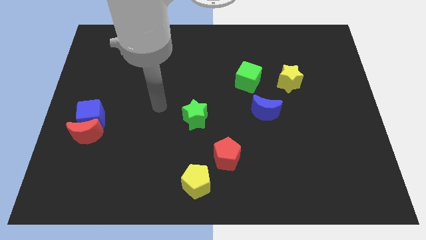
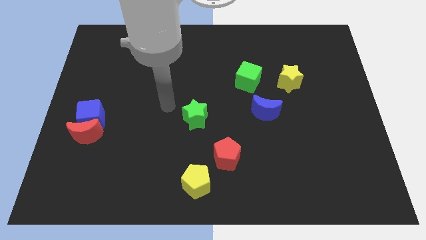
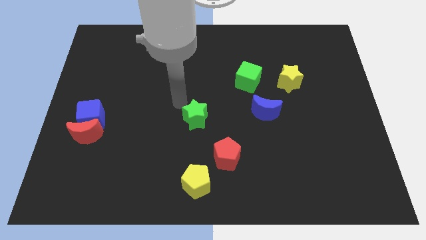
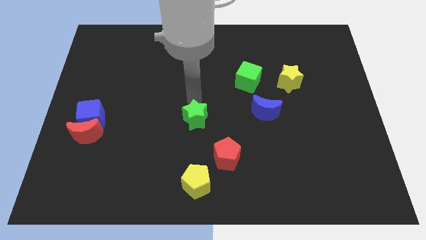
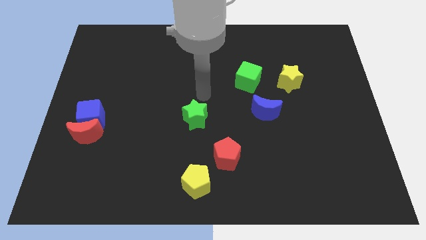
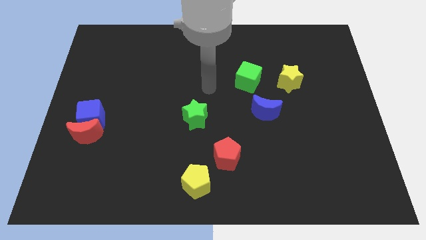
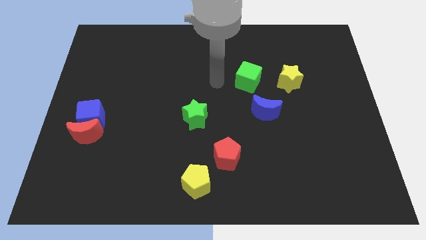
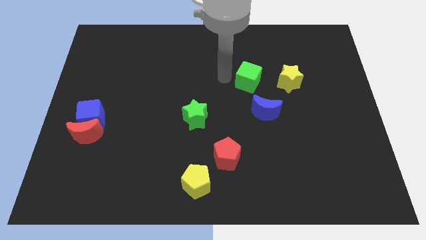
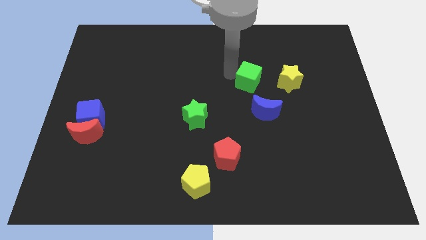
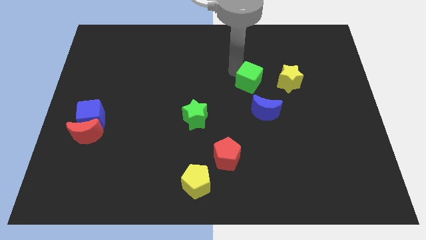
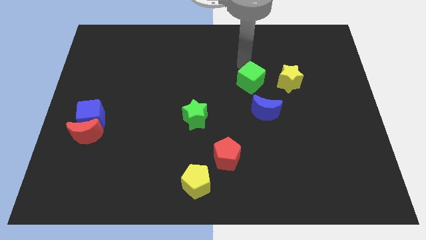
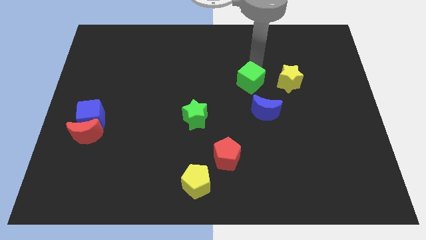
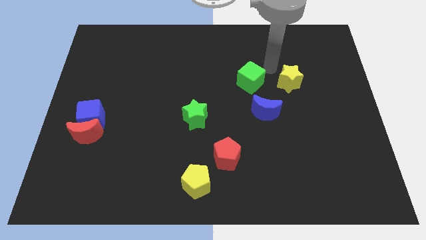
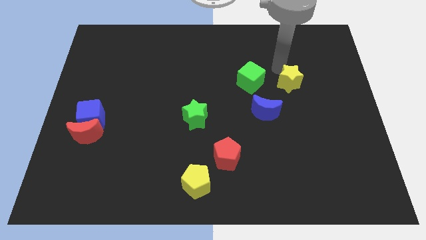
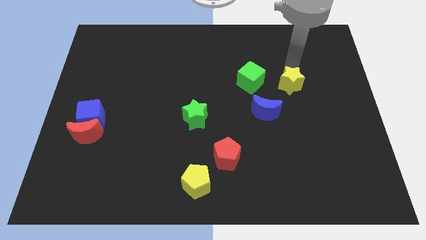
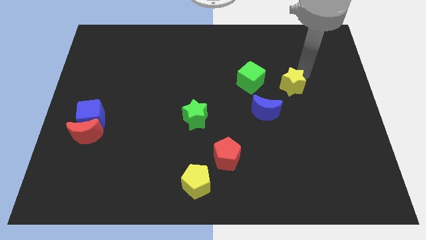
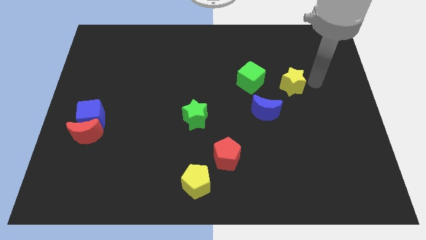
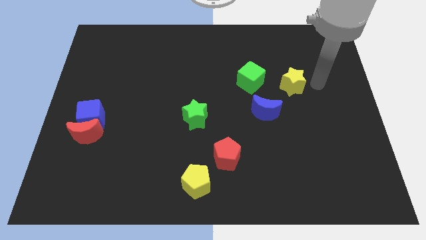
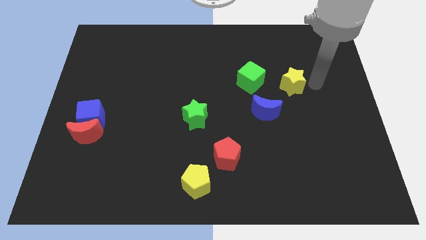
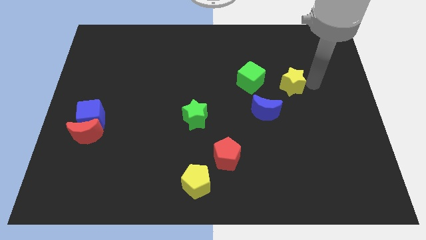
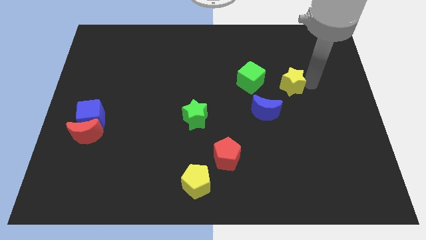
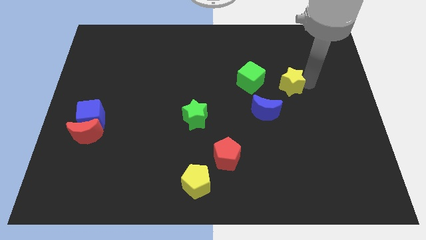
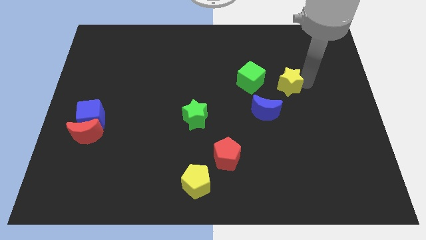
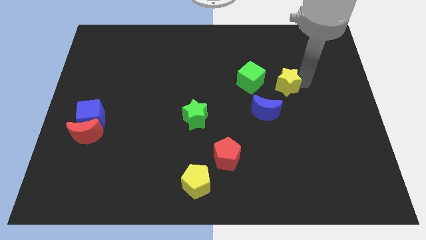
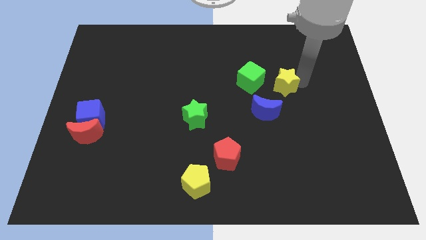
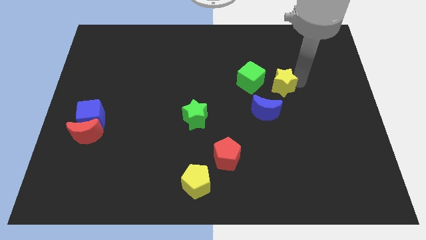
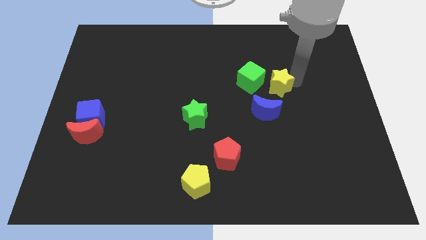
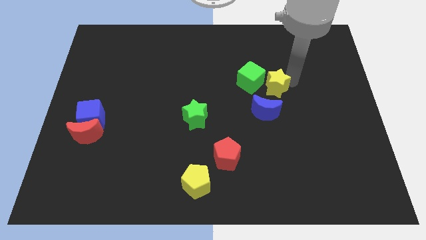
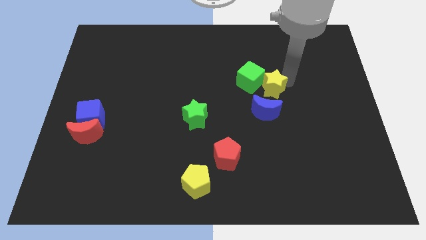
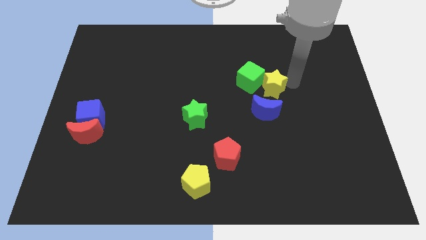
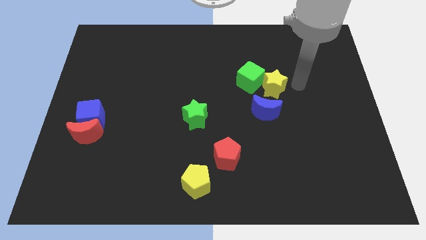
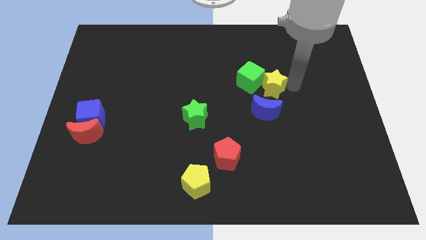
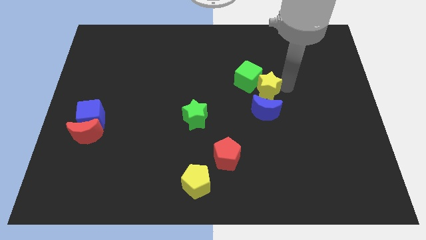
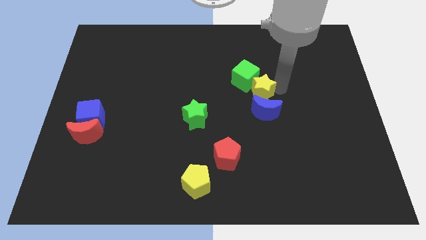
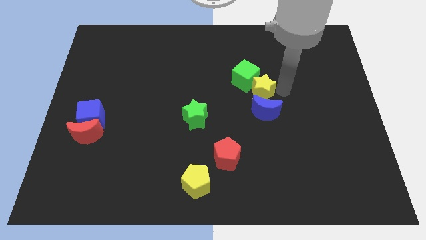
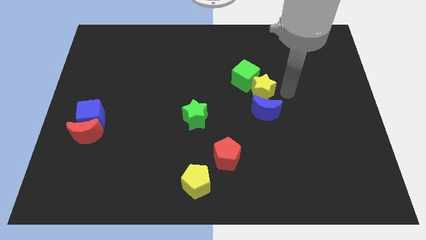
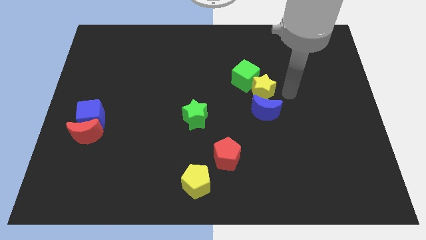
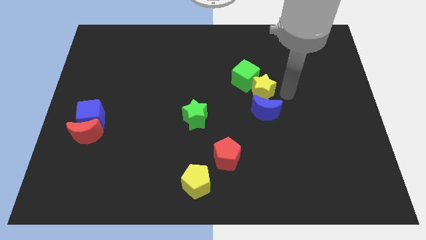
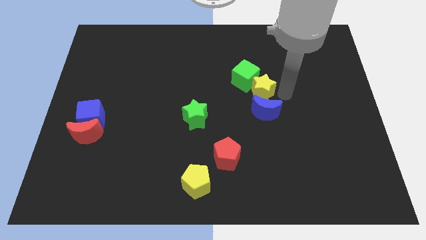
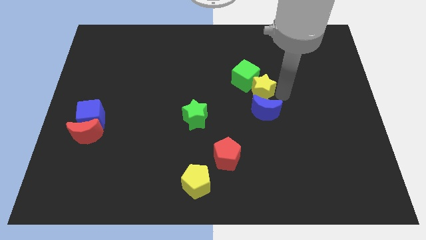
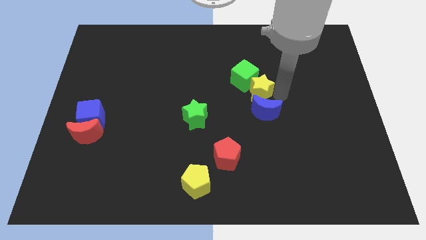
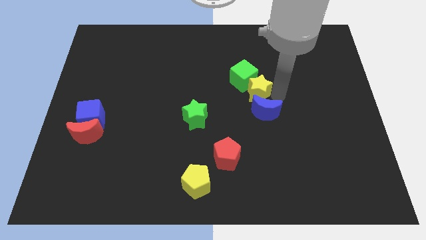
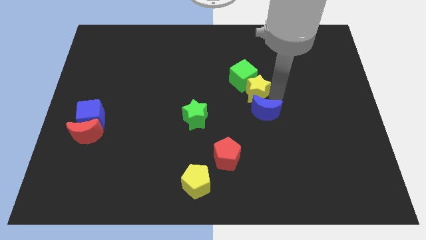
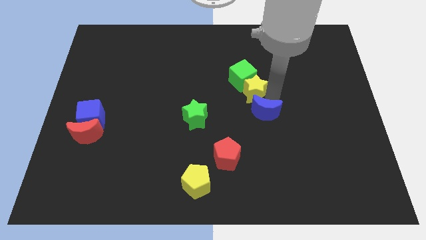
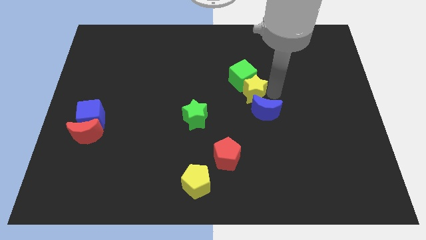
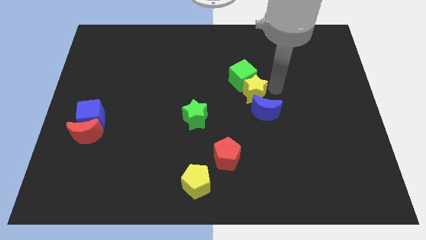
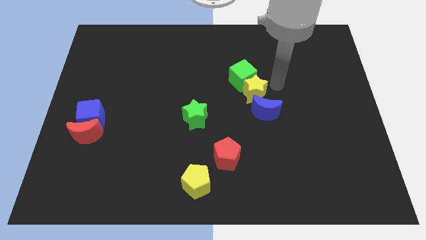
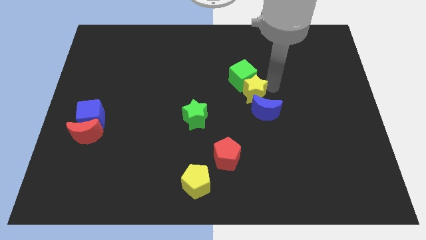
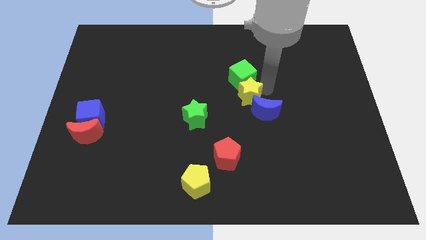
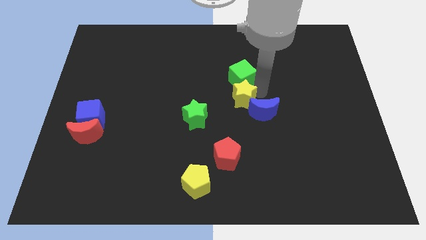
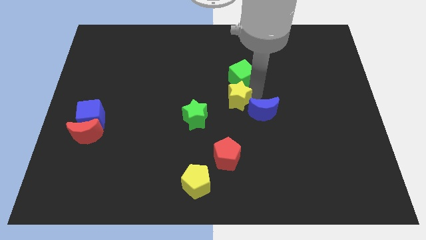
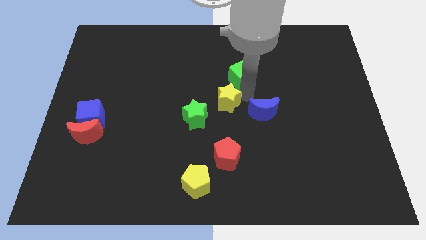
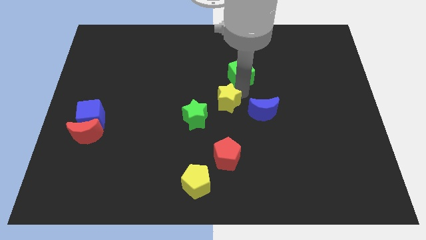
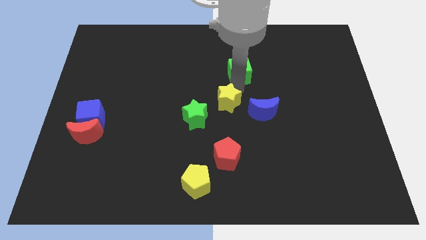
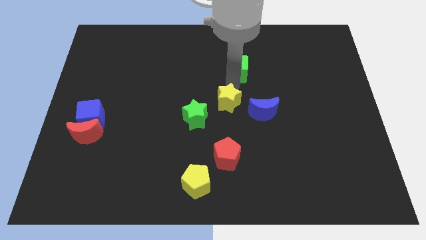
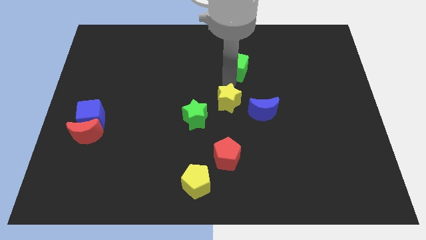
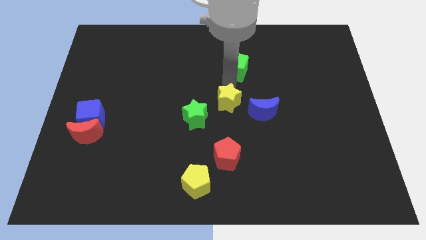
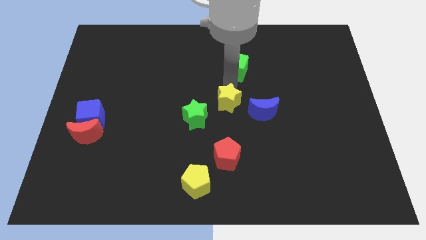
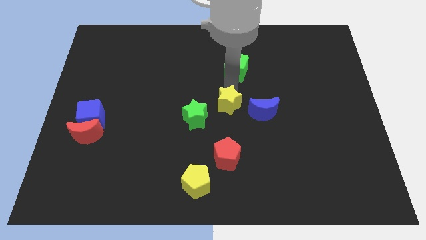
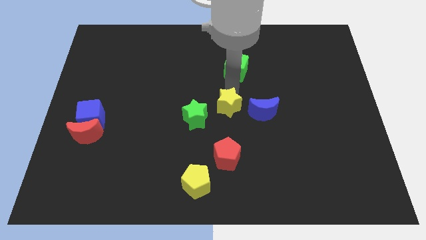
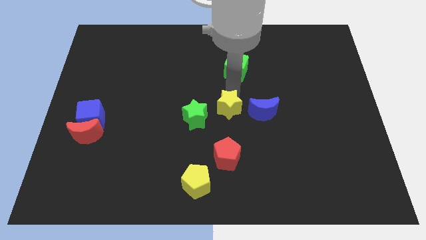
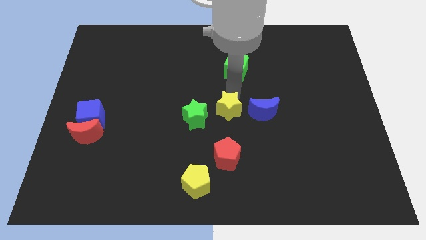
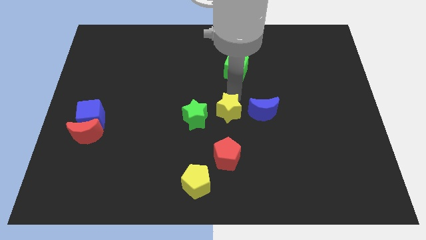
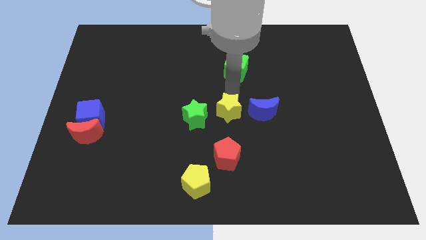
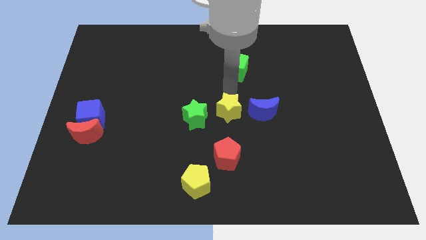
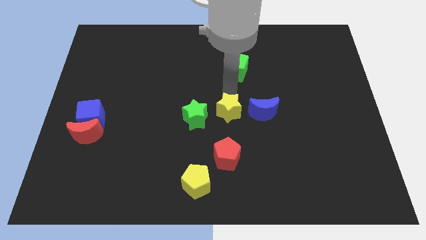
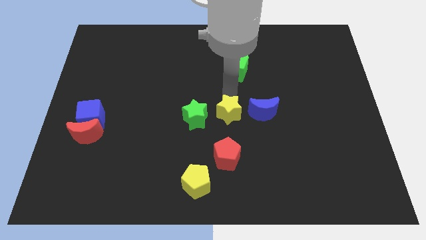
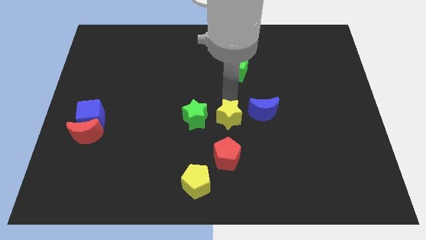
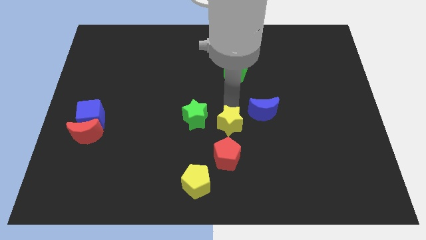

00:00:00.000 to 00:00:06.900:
move the yellow star down and to the left diagonally

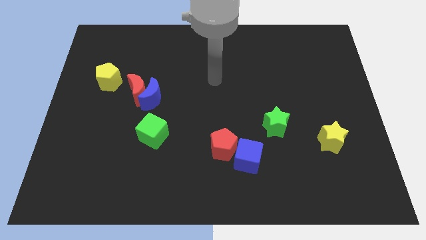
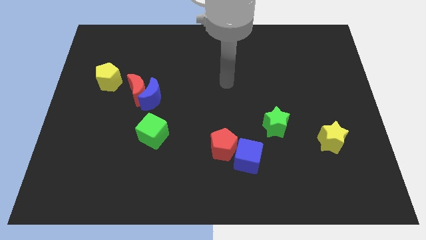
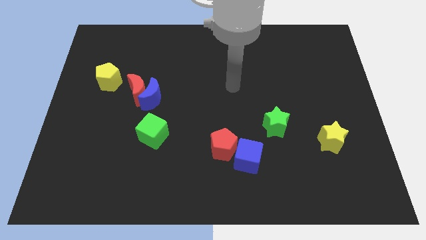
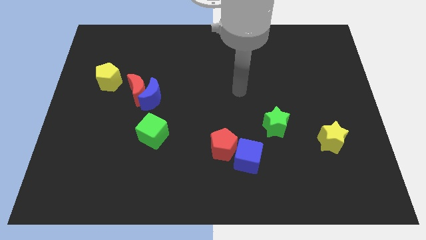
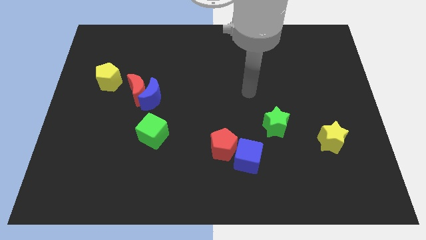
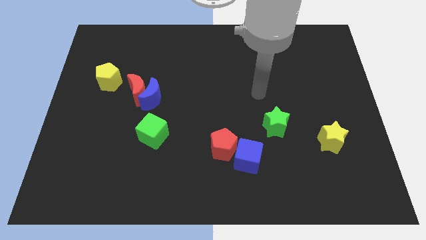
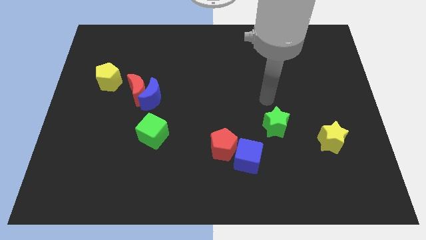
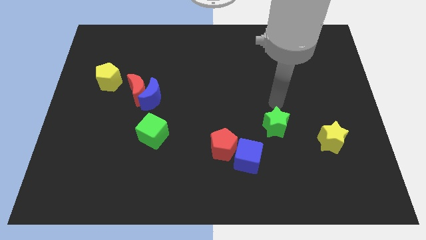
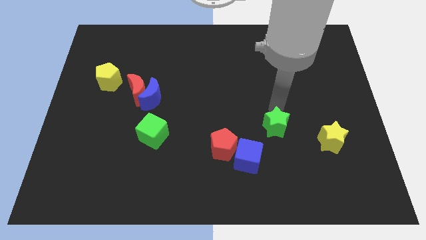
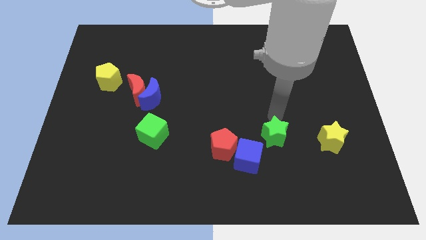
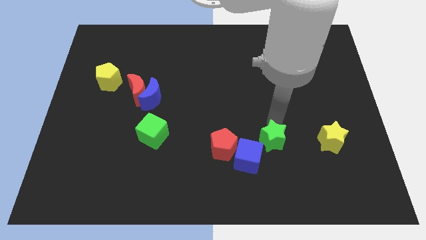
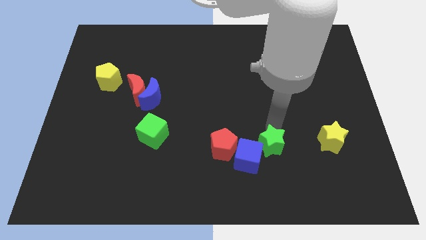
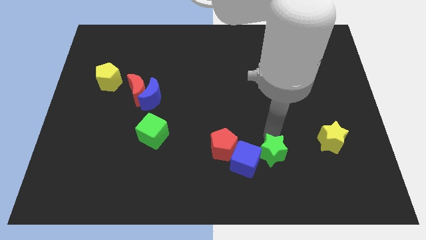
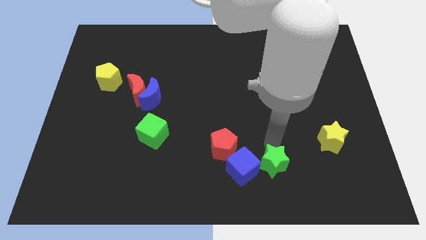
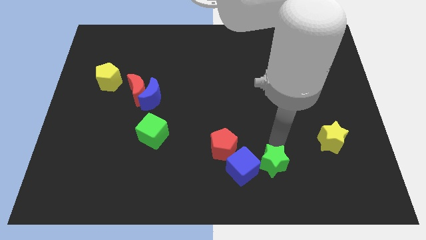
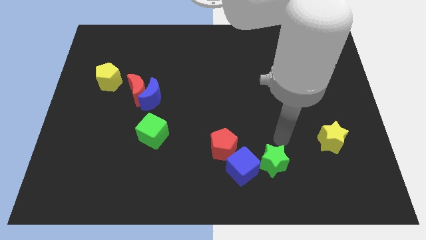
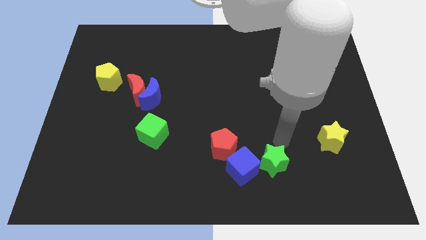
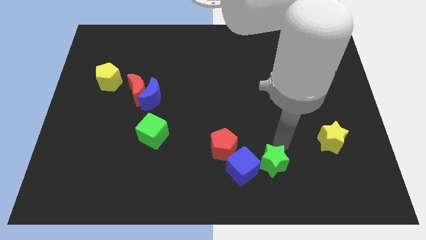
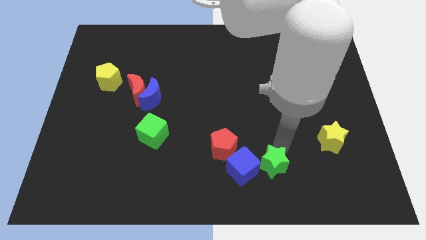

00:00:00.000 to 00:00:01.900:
push the green star a little down and then to the left
